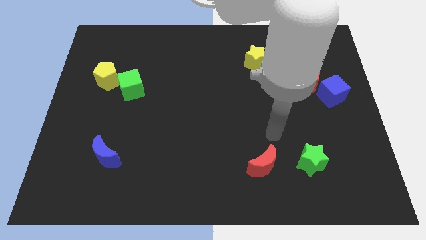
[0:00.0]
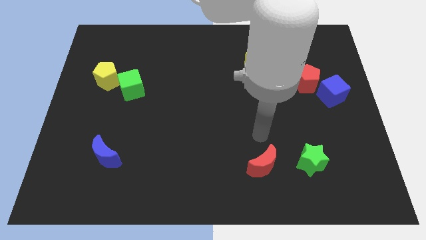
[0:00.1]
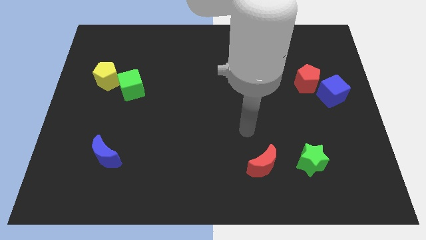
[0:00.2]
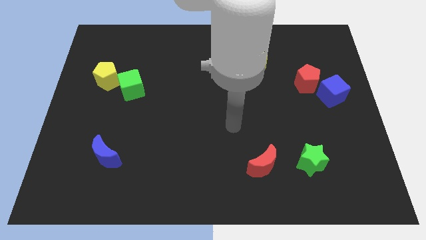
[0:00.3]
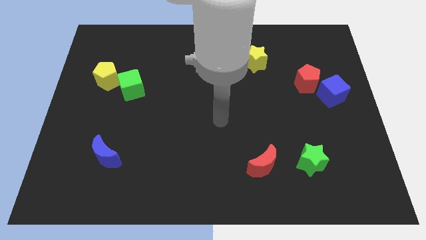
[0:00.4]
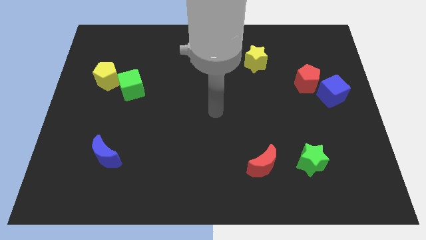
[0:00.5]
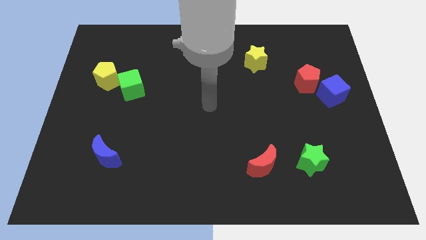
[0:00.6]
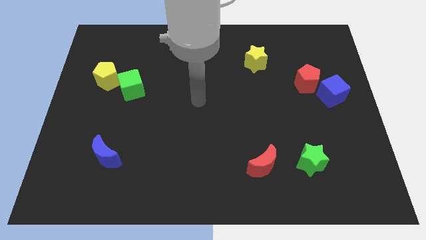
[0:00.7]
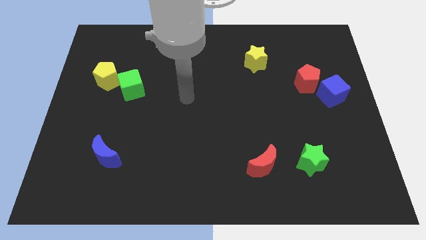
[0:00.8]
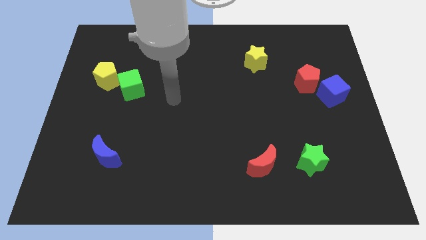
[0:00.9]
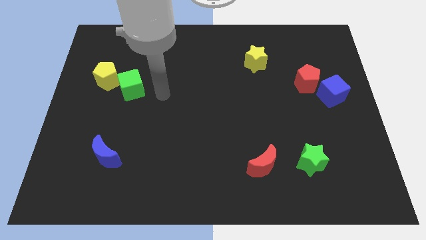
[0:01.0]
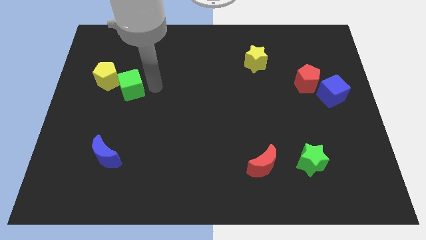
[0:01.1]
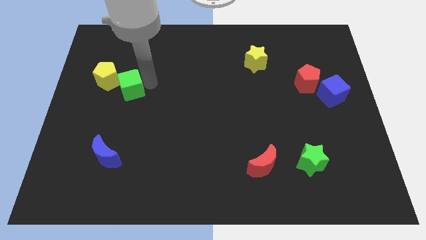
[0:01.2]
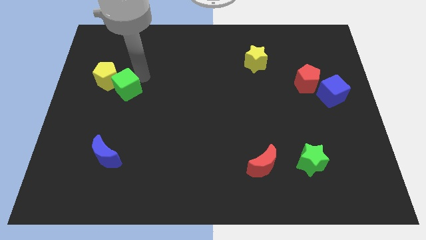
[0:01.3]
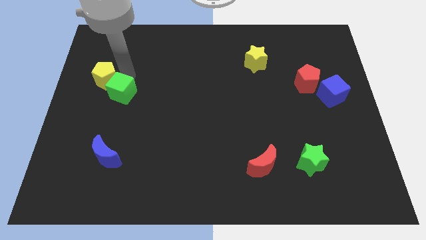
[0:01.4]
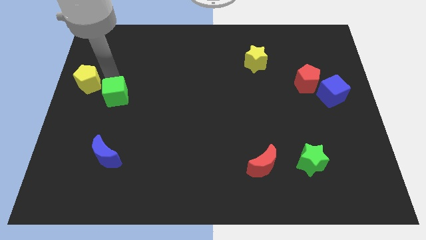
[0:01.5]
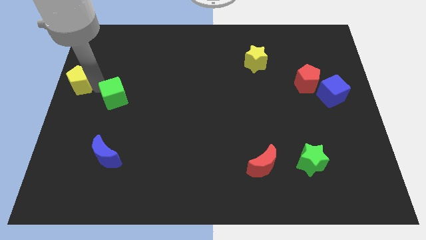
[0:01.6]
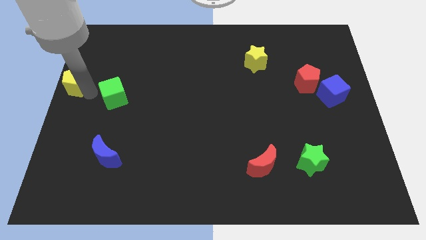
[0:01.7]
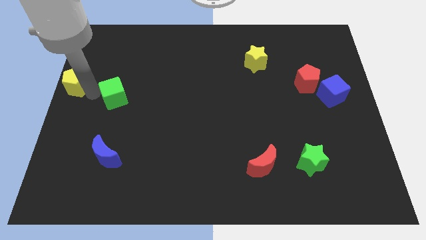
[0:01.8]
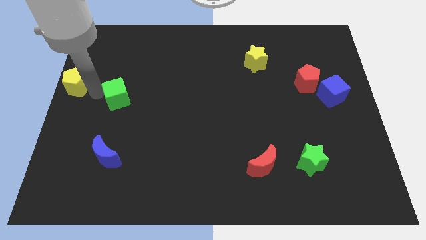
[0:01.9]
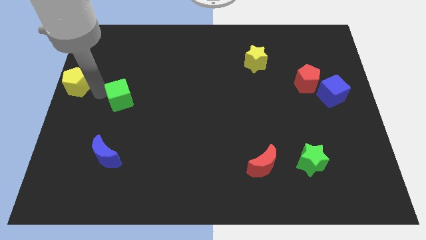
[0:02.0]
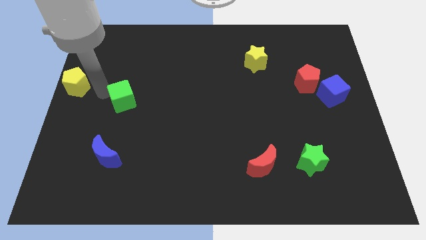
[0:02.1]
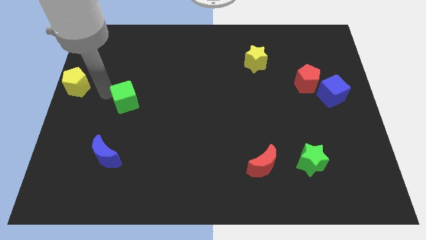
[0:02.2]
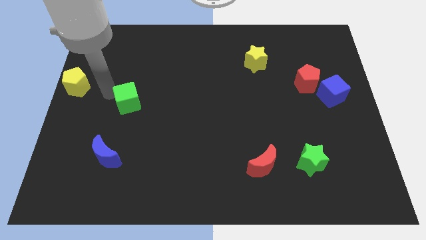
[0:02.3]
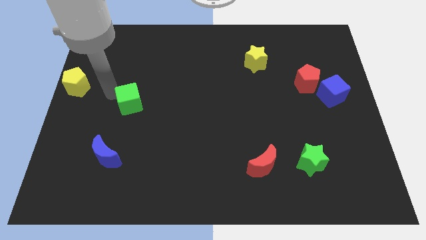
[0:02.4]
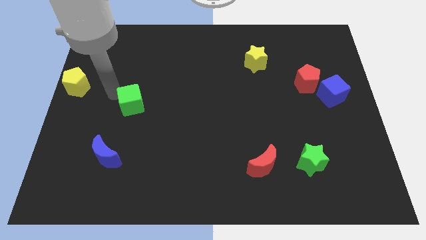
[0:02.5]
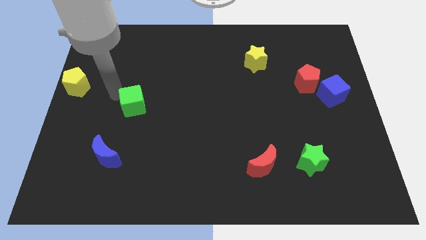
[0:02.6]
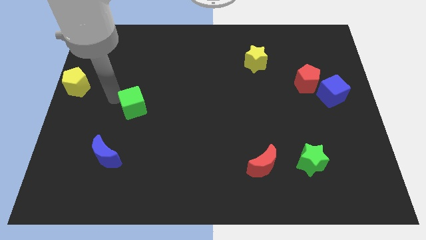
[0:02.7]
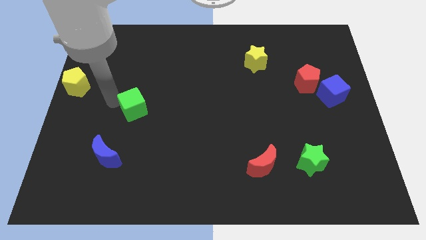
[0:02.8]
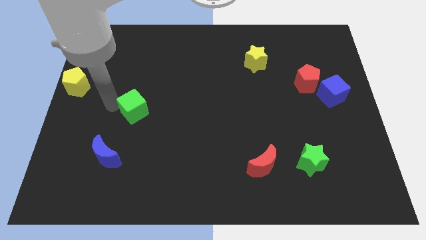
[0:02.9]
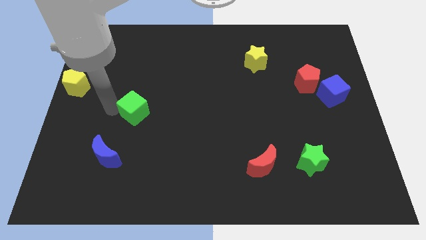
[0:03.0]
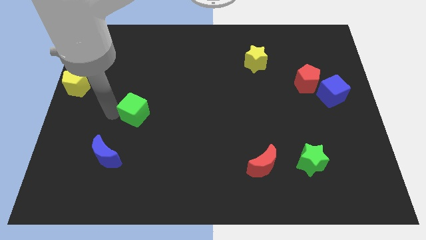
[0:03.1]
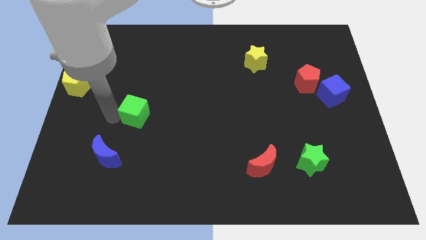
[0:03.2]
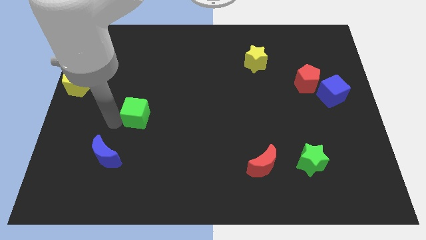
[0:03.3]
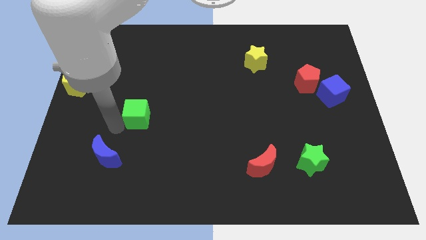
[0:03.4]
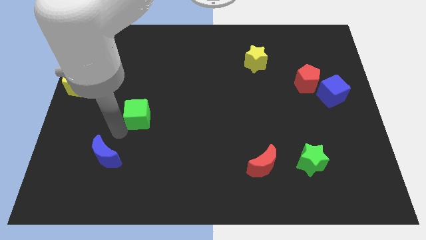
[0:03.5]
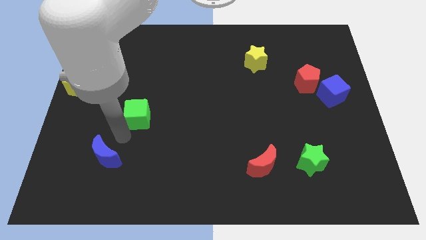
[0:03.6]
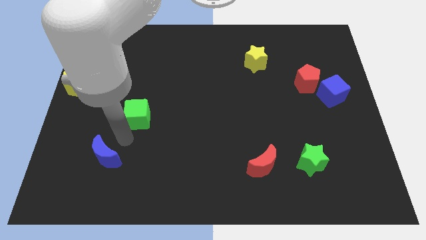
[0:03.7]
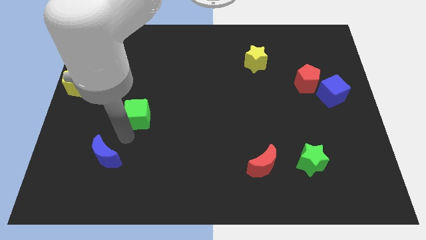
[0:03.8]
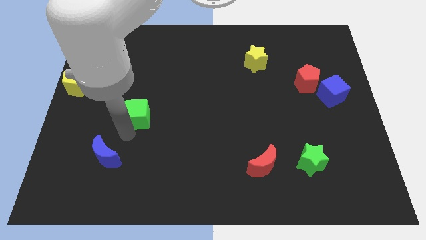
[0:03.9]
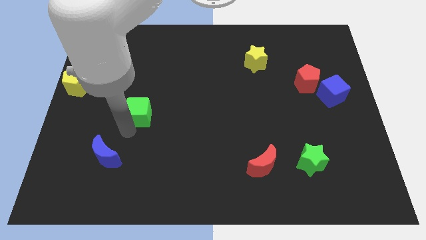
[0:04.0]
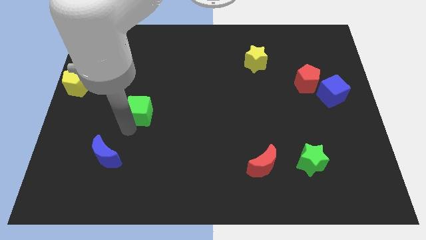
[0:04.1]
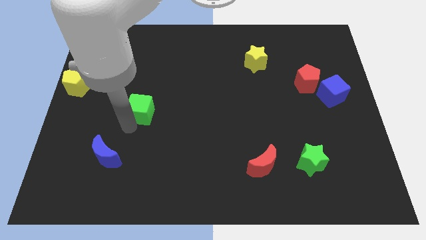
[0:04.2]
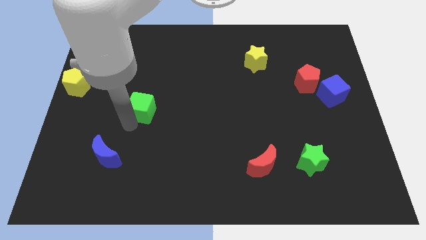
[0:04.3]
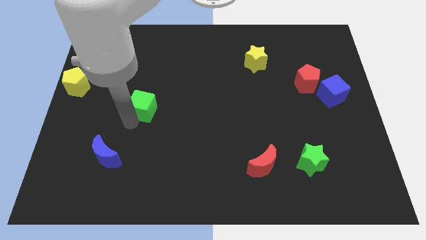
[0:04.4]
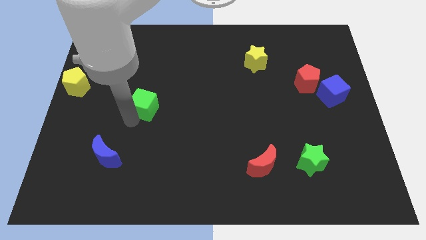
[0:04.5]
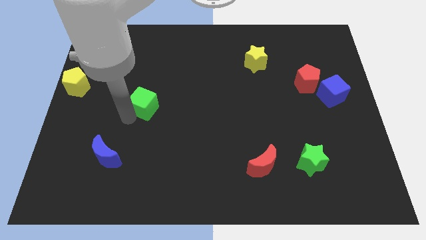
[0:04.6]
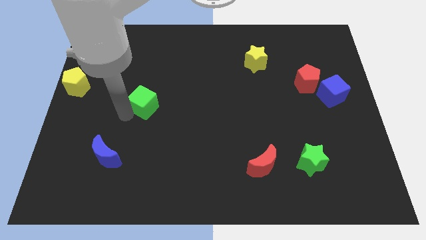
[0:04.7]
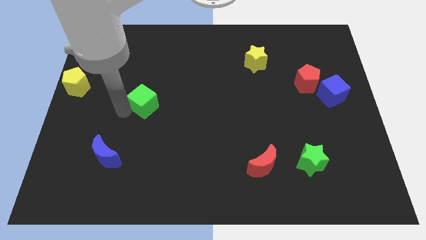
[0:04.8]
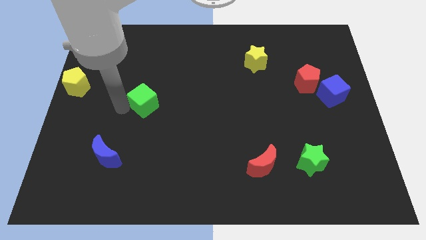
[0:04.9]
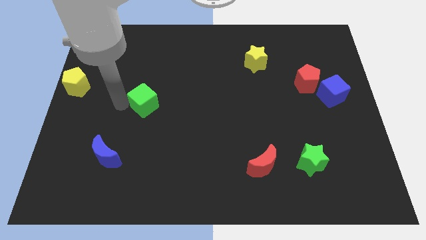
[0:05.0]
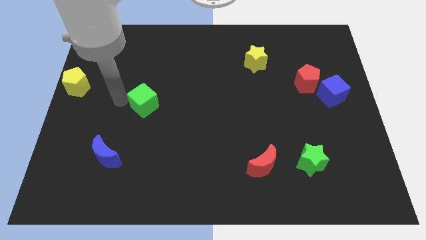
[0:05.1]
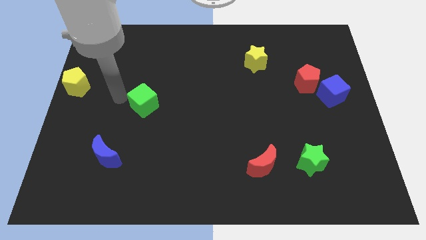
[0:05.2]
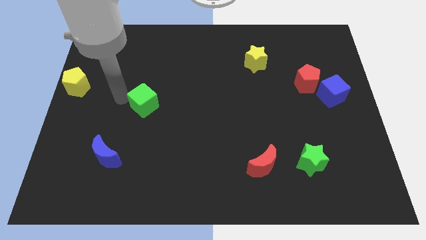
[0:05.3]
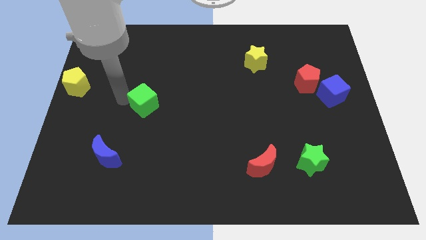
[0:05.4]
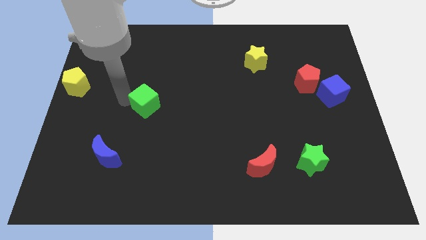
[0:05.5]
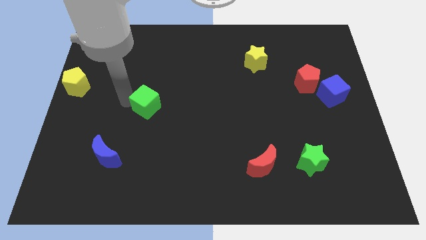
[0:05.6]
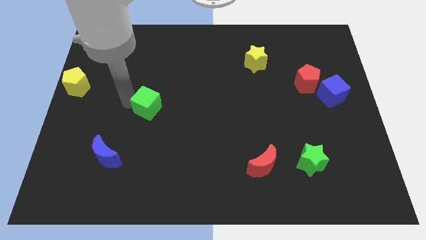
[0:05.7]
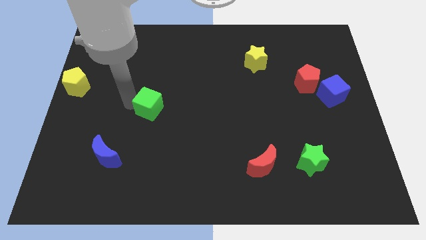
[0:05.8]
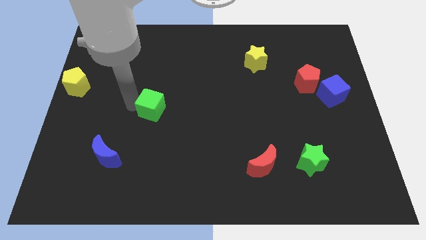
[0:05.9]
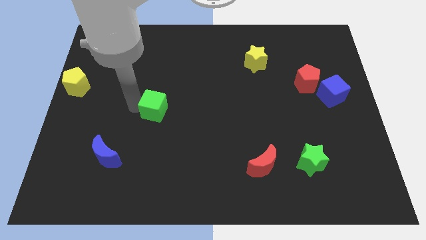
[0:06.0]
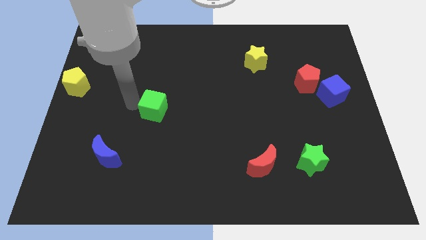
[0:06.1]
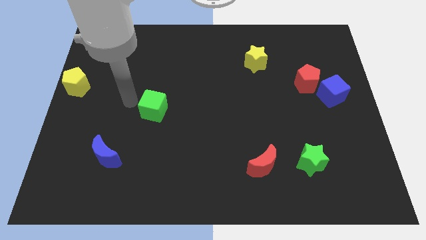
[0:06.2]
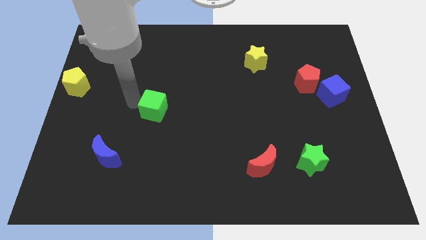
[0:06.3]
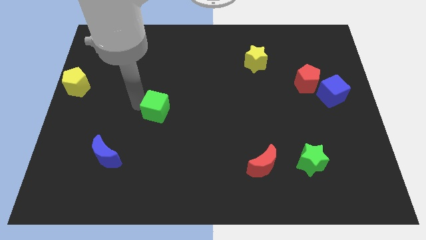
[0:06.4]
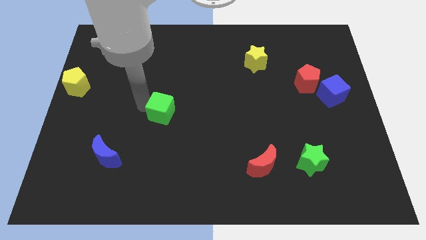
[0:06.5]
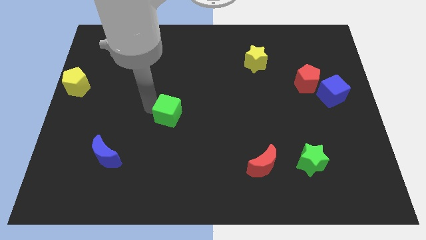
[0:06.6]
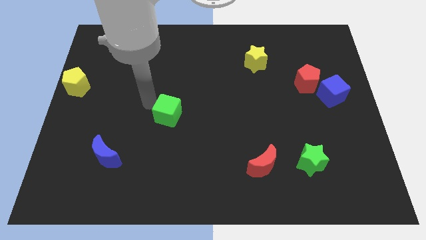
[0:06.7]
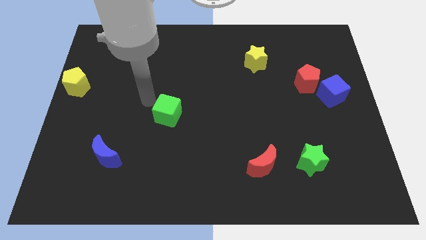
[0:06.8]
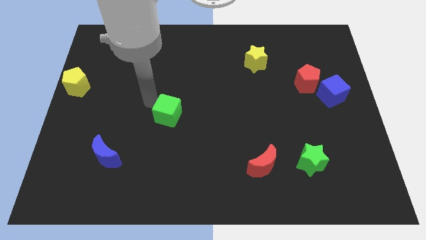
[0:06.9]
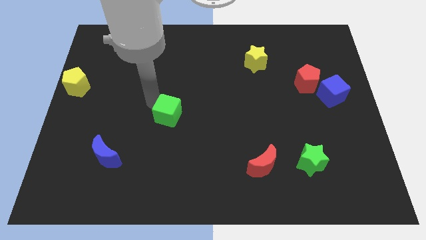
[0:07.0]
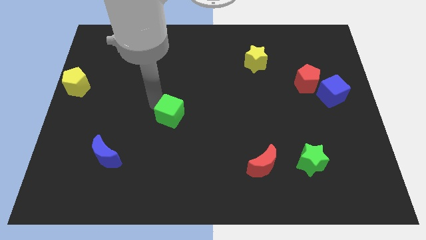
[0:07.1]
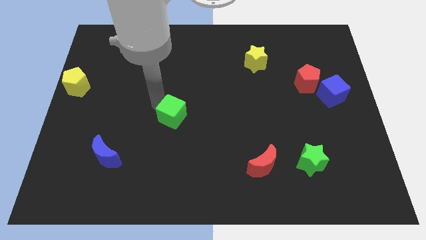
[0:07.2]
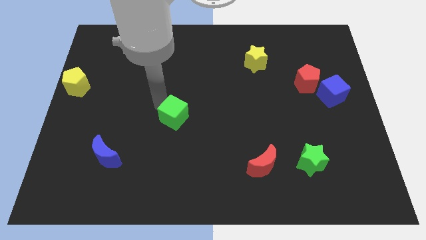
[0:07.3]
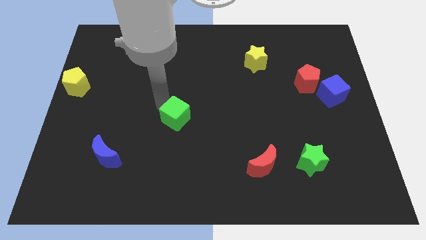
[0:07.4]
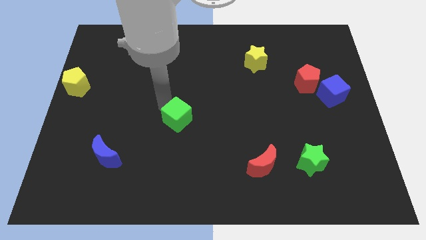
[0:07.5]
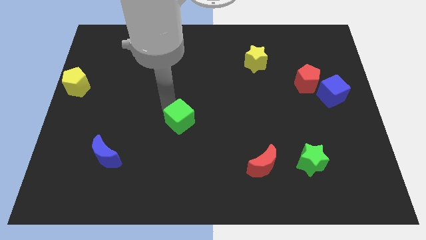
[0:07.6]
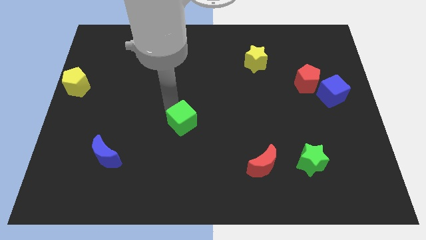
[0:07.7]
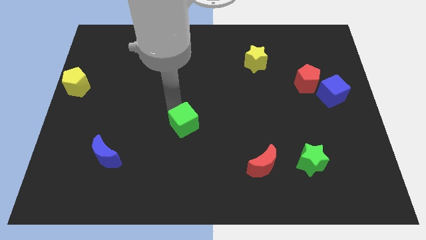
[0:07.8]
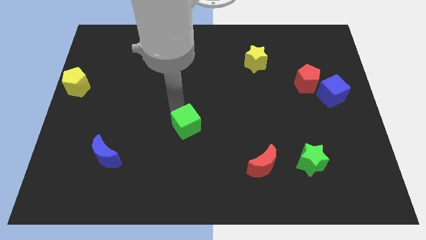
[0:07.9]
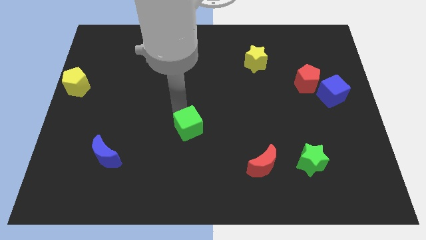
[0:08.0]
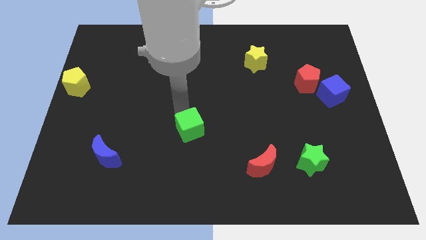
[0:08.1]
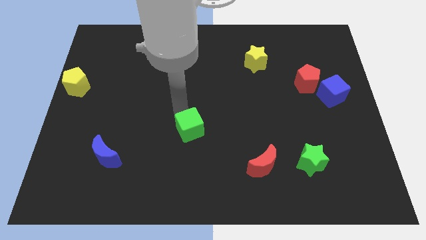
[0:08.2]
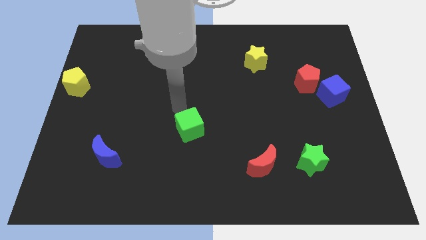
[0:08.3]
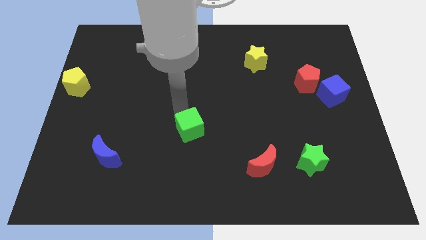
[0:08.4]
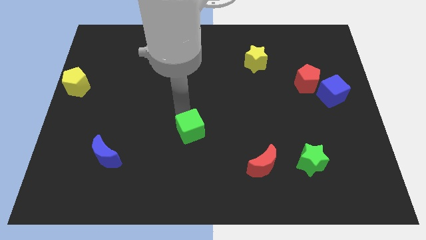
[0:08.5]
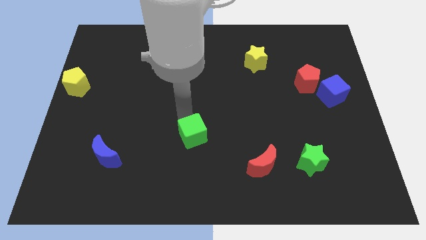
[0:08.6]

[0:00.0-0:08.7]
slide the green cube down and then right
